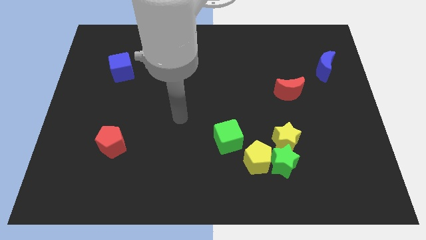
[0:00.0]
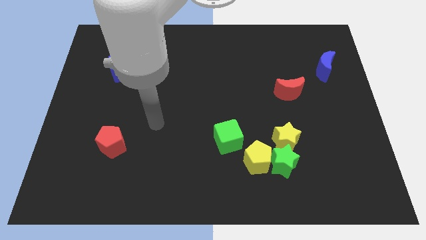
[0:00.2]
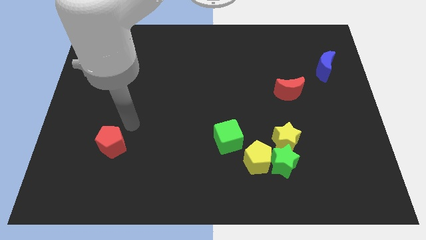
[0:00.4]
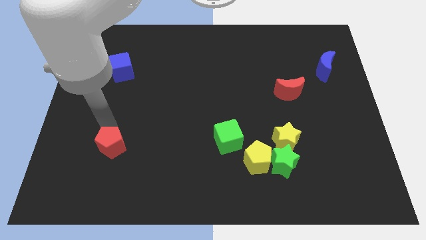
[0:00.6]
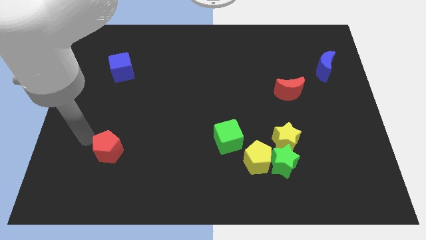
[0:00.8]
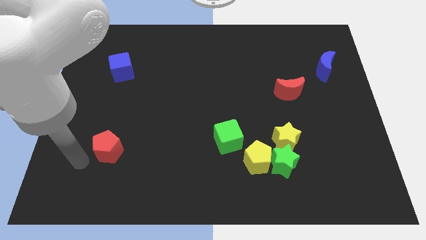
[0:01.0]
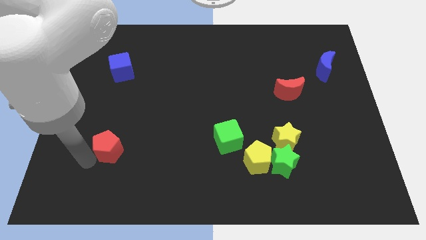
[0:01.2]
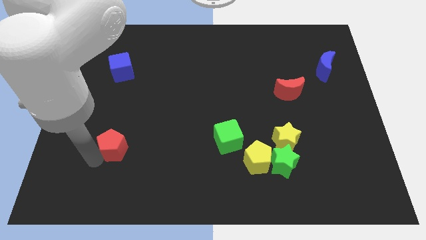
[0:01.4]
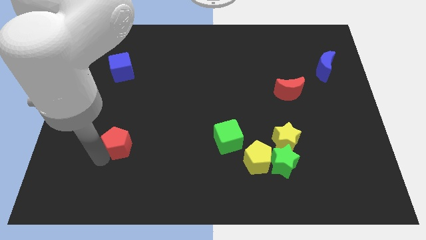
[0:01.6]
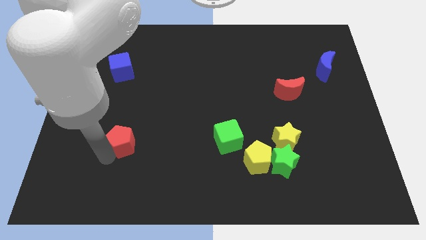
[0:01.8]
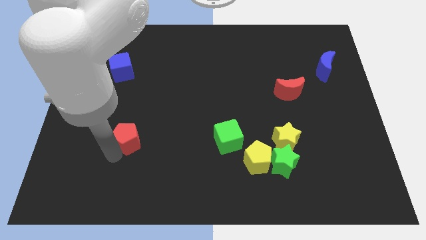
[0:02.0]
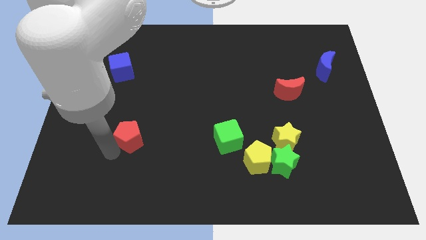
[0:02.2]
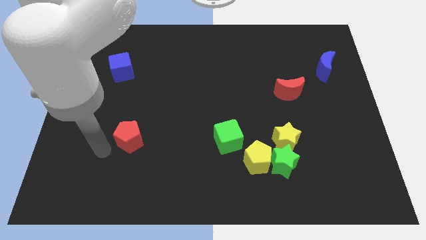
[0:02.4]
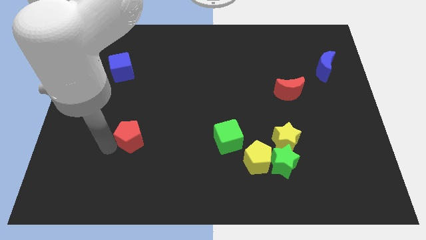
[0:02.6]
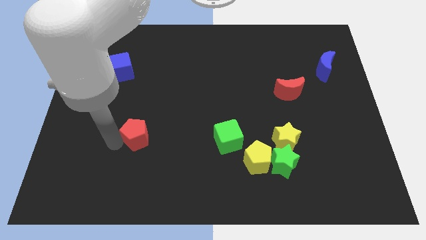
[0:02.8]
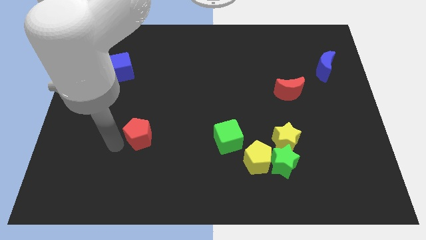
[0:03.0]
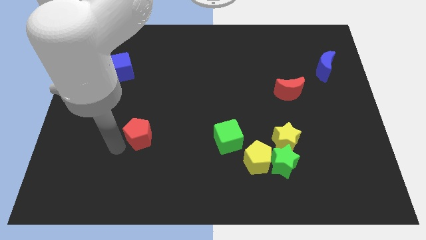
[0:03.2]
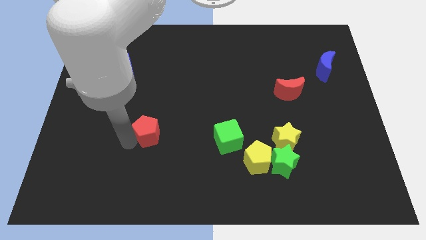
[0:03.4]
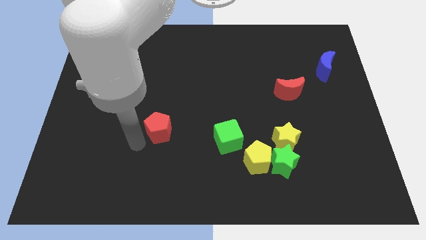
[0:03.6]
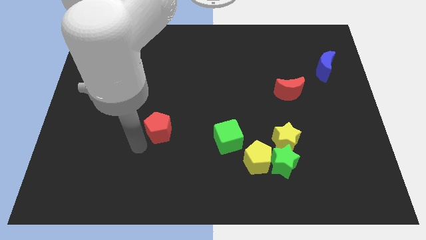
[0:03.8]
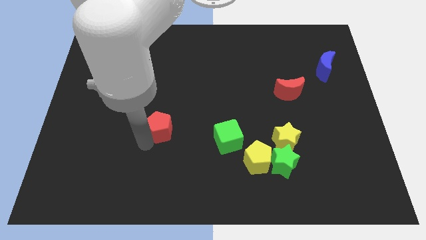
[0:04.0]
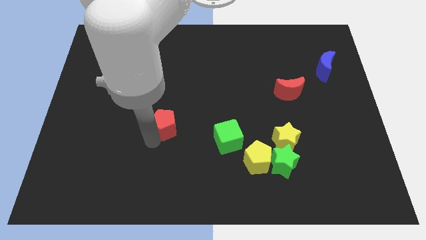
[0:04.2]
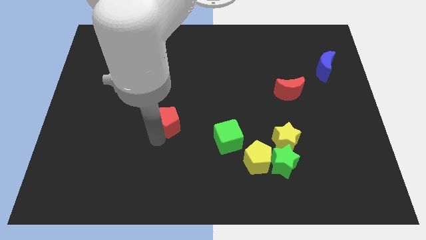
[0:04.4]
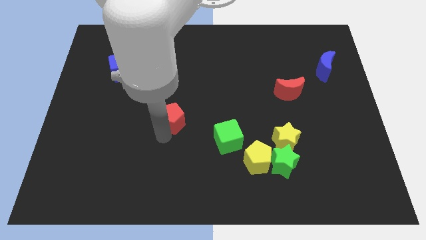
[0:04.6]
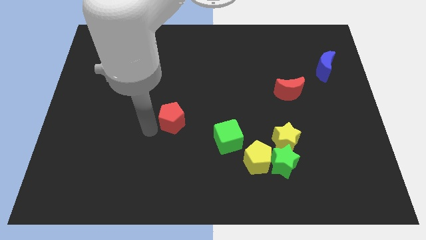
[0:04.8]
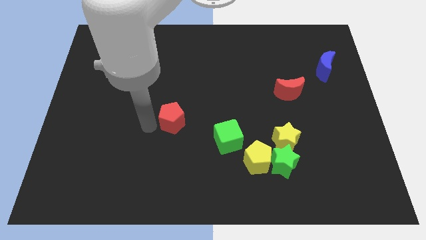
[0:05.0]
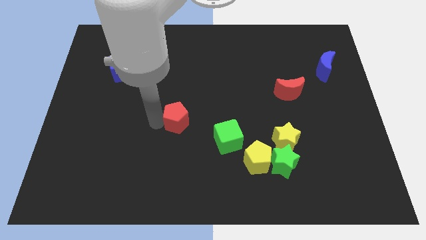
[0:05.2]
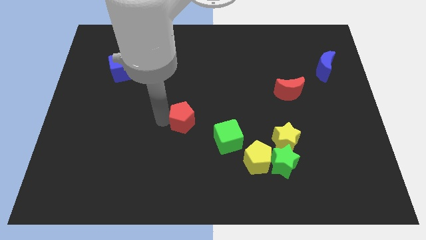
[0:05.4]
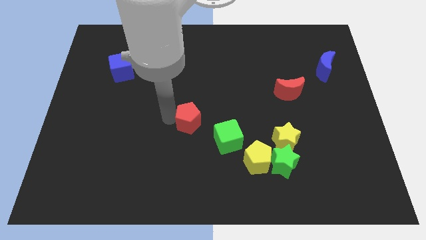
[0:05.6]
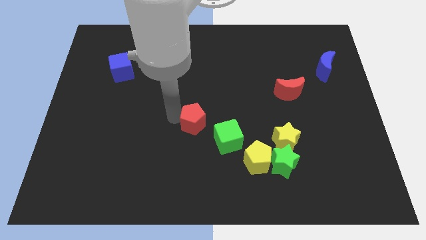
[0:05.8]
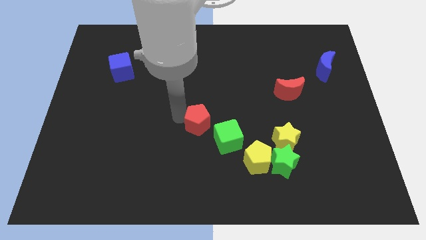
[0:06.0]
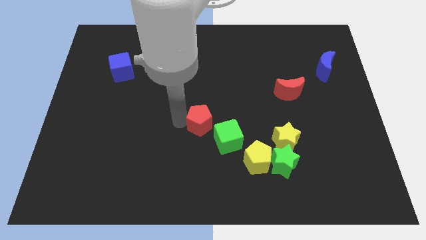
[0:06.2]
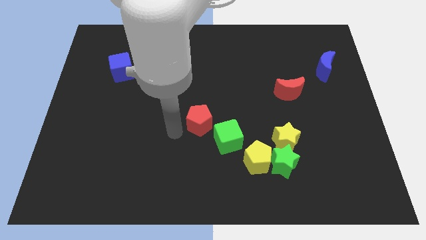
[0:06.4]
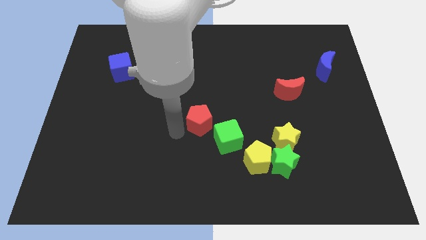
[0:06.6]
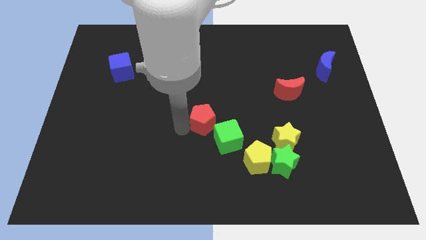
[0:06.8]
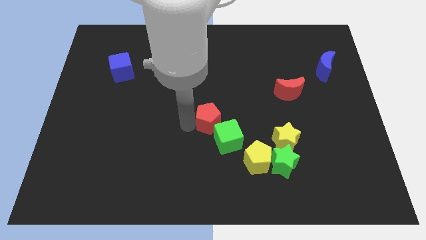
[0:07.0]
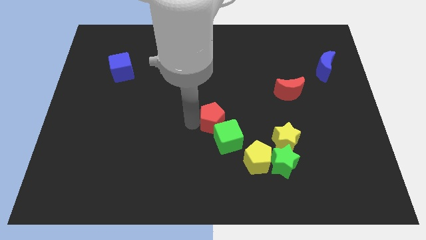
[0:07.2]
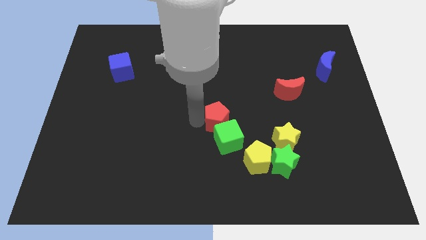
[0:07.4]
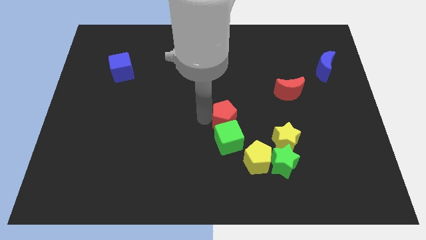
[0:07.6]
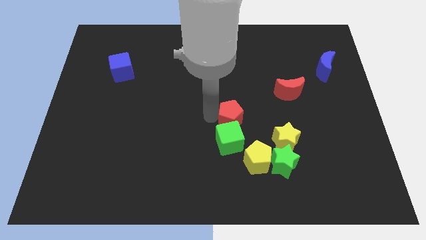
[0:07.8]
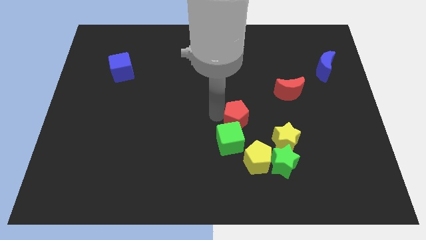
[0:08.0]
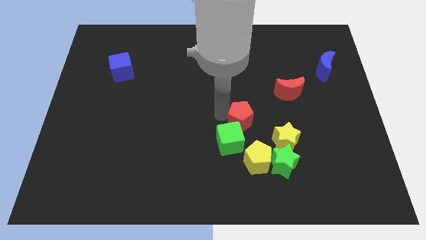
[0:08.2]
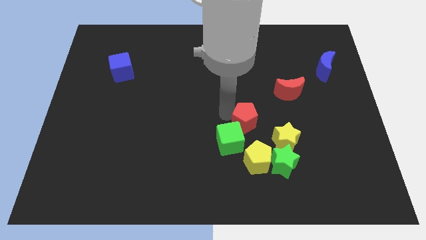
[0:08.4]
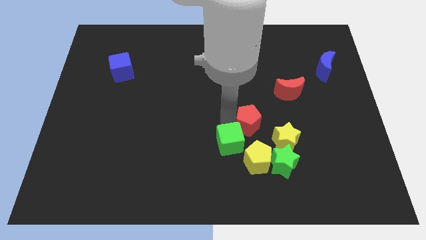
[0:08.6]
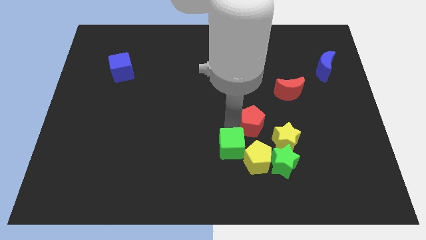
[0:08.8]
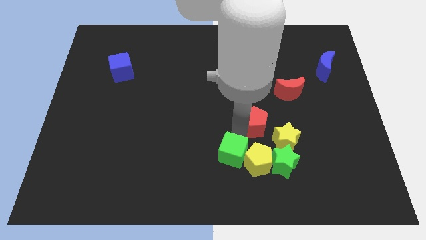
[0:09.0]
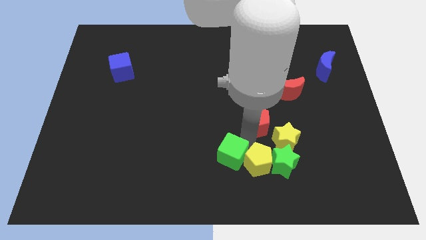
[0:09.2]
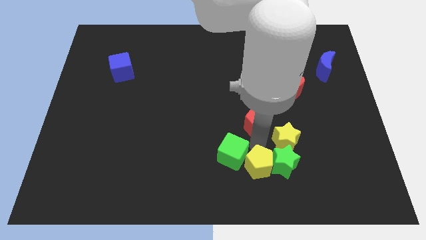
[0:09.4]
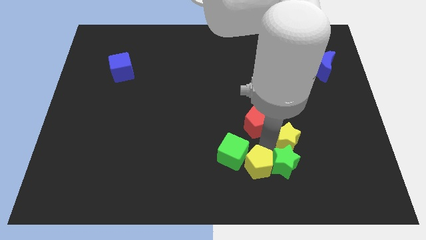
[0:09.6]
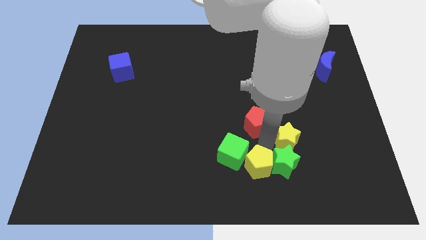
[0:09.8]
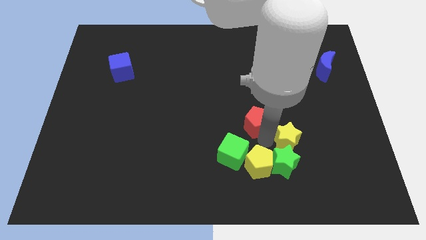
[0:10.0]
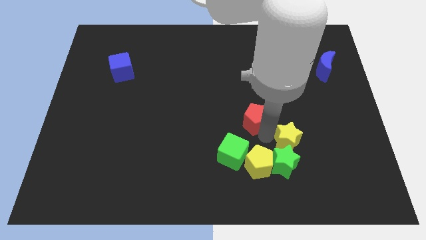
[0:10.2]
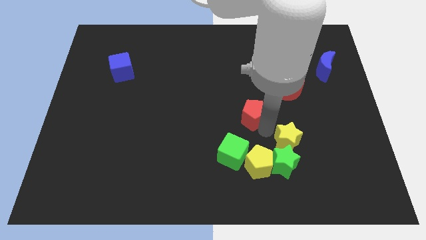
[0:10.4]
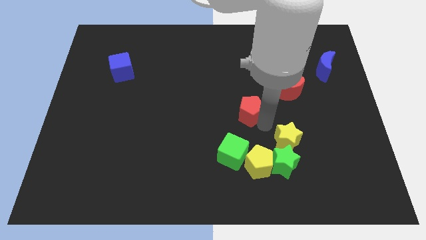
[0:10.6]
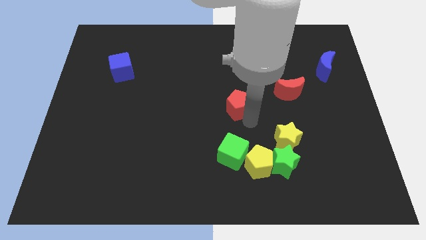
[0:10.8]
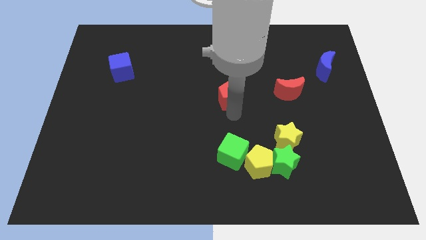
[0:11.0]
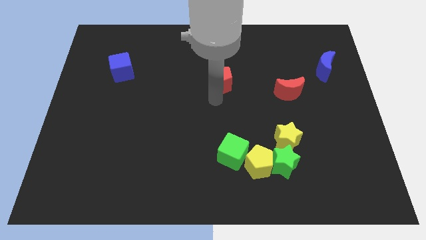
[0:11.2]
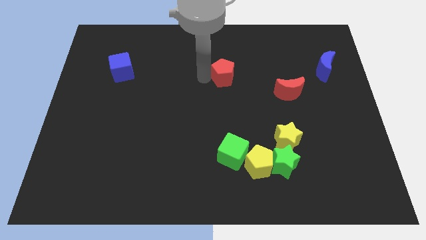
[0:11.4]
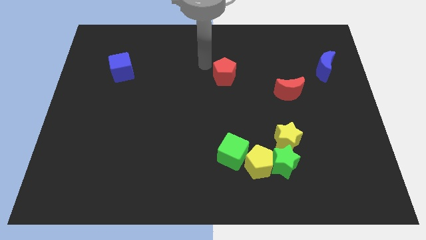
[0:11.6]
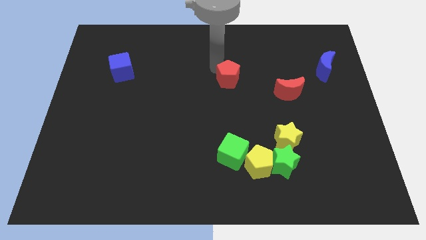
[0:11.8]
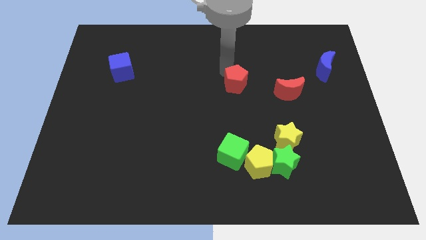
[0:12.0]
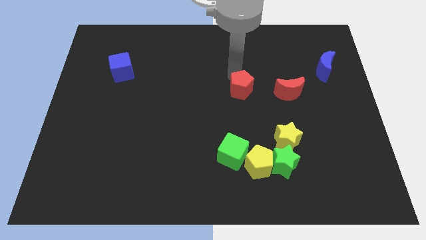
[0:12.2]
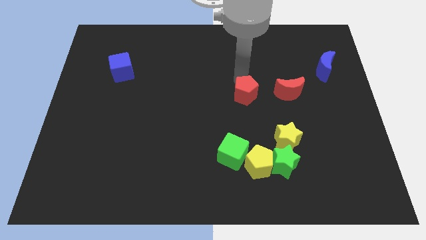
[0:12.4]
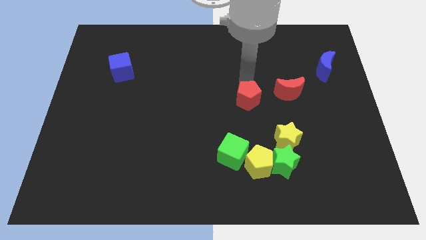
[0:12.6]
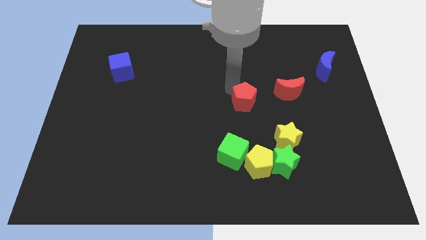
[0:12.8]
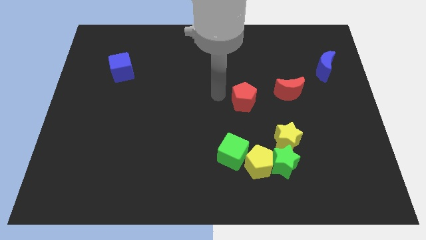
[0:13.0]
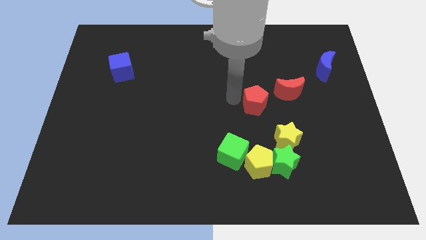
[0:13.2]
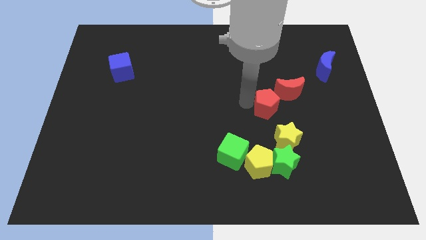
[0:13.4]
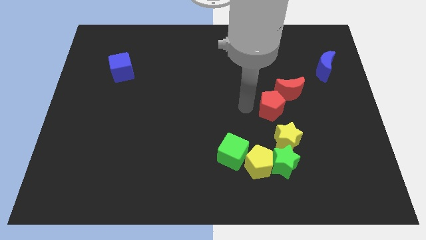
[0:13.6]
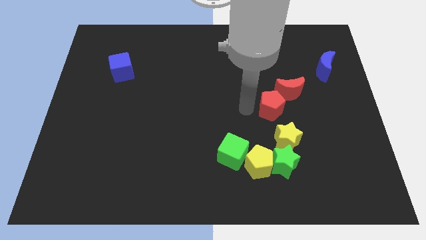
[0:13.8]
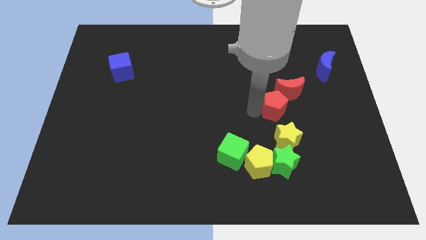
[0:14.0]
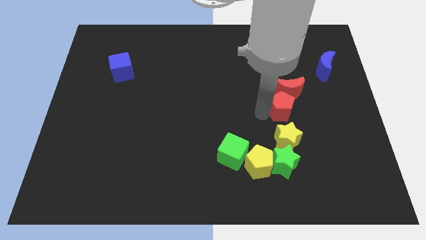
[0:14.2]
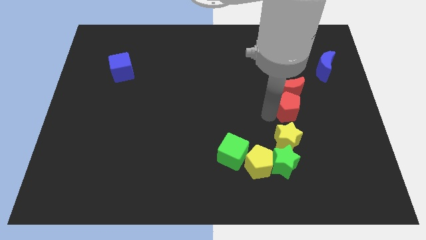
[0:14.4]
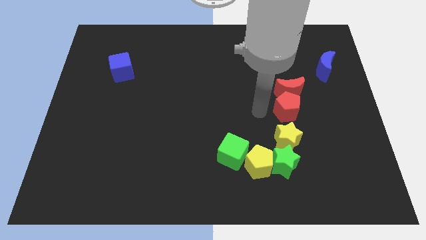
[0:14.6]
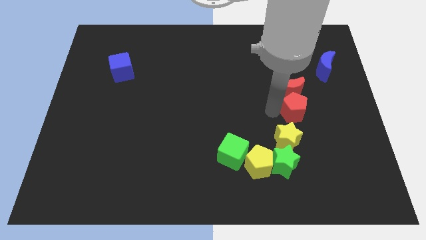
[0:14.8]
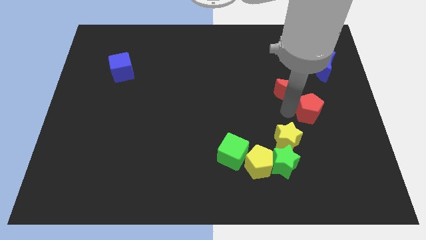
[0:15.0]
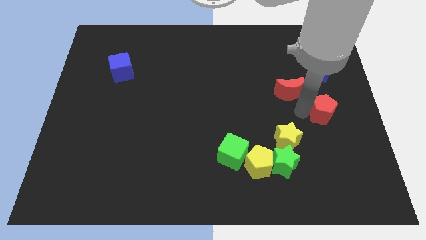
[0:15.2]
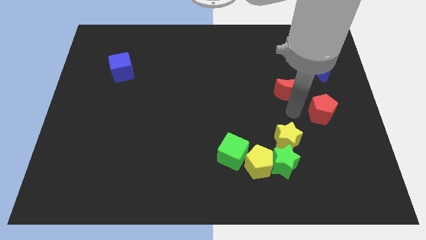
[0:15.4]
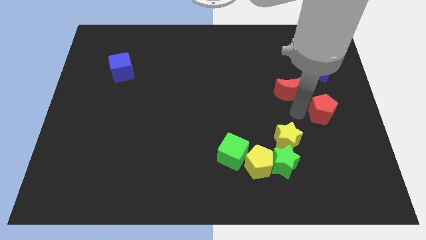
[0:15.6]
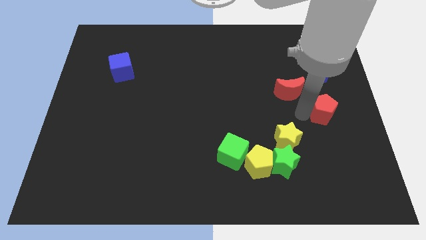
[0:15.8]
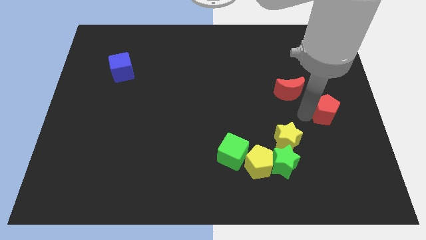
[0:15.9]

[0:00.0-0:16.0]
put the red pentagon to the right side
